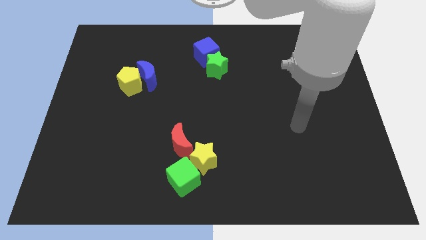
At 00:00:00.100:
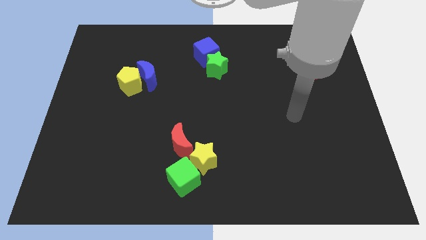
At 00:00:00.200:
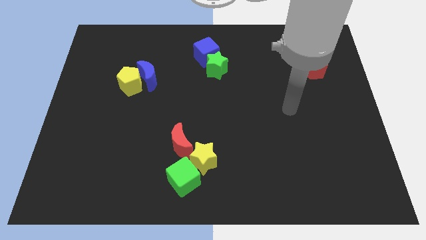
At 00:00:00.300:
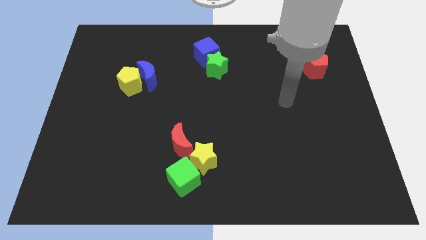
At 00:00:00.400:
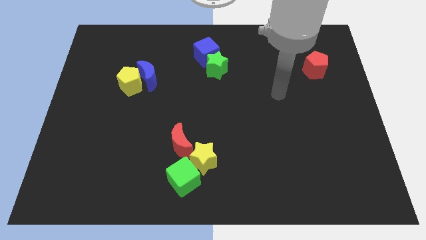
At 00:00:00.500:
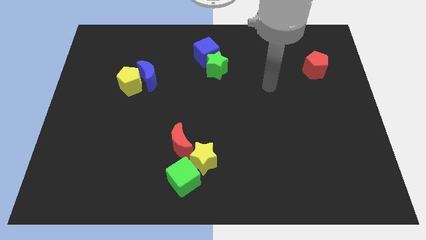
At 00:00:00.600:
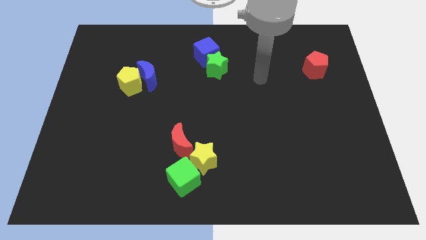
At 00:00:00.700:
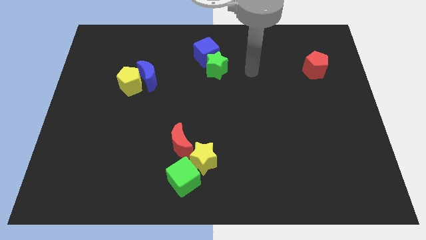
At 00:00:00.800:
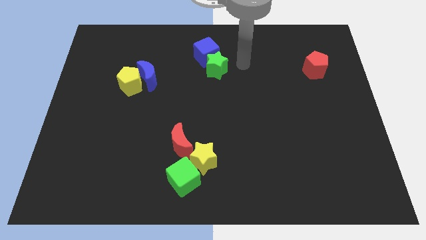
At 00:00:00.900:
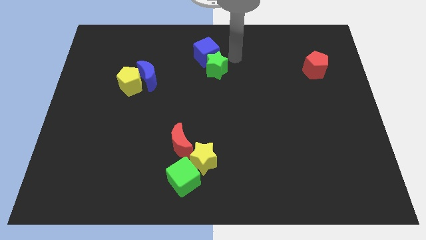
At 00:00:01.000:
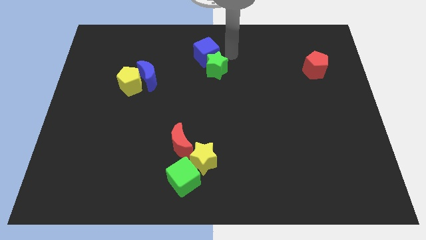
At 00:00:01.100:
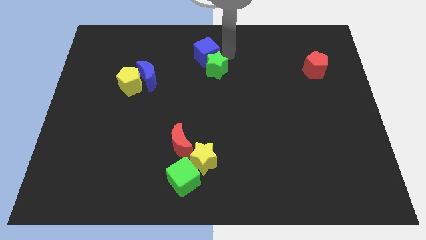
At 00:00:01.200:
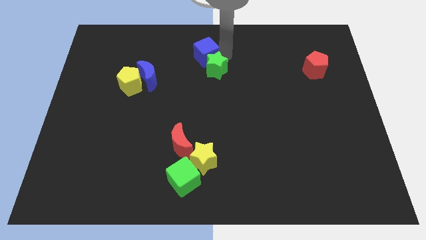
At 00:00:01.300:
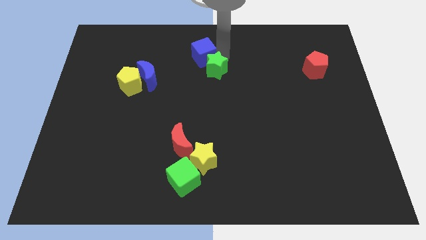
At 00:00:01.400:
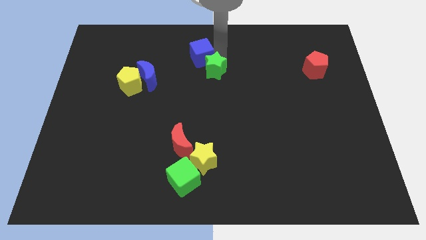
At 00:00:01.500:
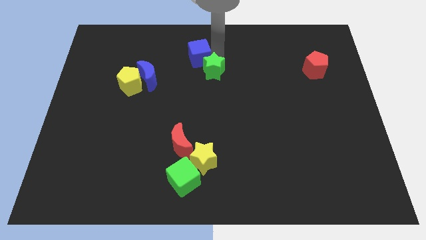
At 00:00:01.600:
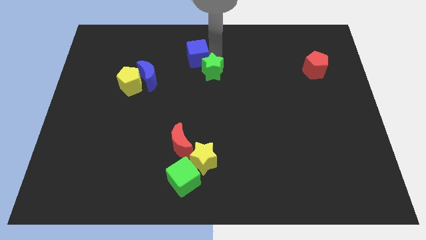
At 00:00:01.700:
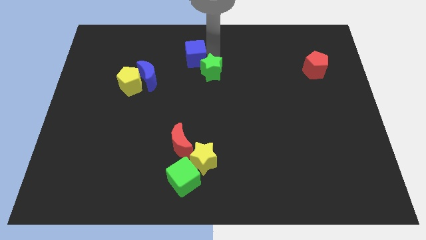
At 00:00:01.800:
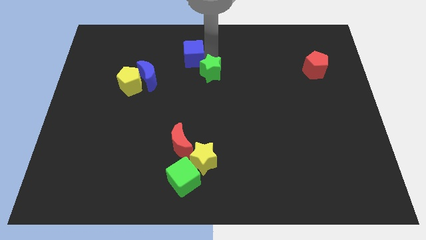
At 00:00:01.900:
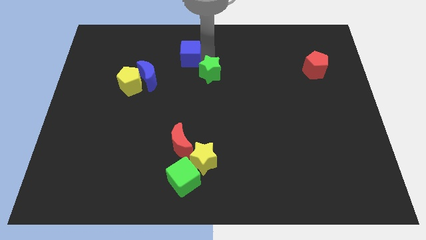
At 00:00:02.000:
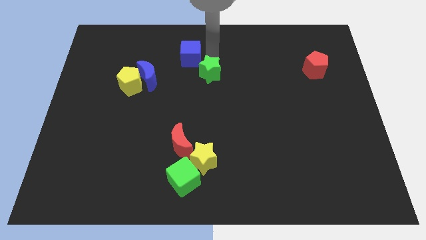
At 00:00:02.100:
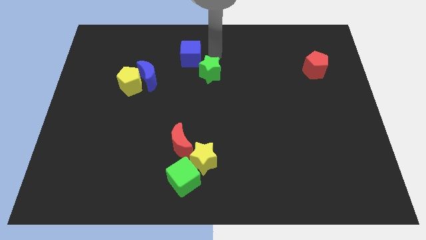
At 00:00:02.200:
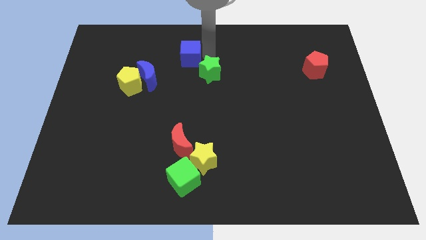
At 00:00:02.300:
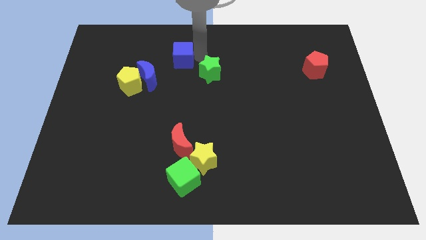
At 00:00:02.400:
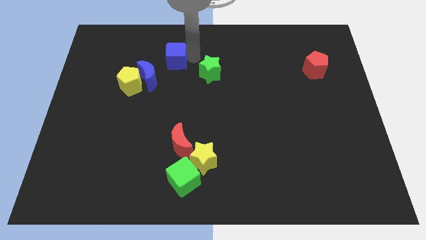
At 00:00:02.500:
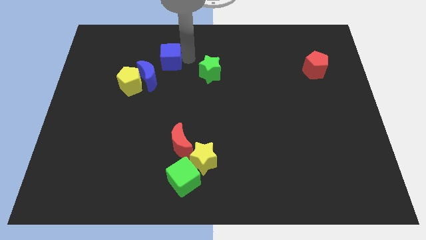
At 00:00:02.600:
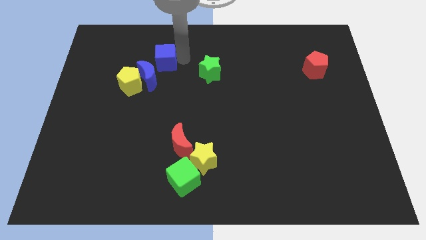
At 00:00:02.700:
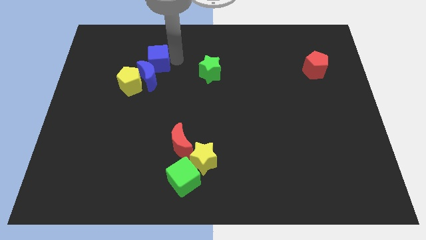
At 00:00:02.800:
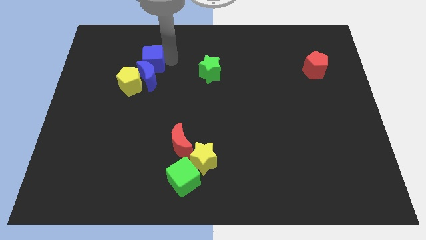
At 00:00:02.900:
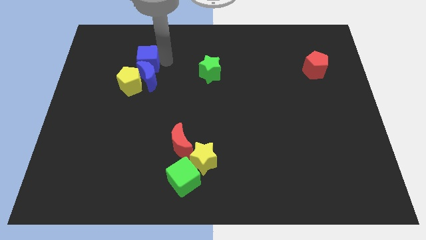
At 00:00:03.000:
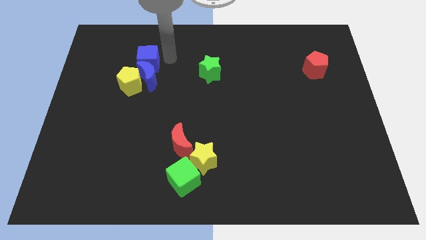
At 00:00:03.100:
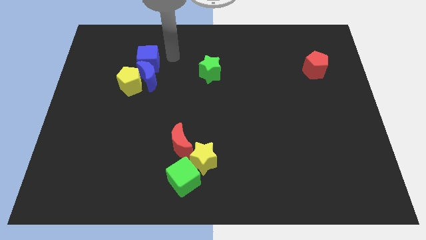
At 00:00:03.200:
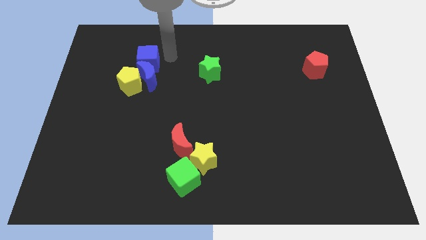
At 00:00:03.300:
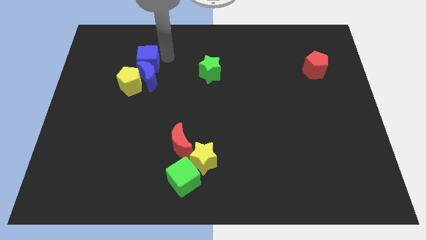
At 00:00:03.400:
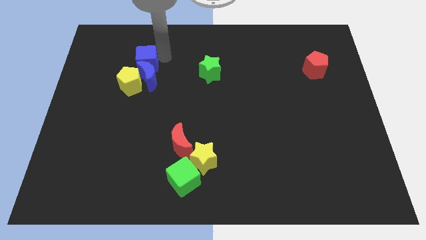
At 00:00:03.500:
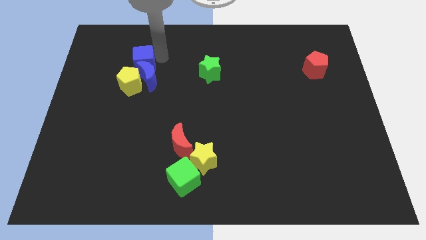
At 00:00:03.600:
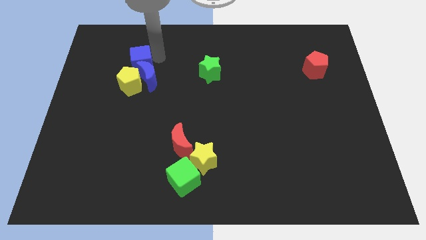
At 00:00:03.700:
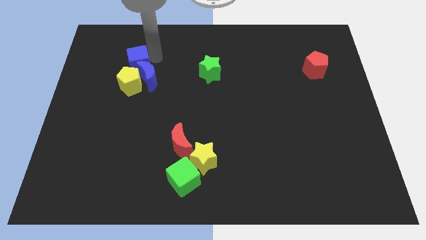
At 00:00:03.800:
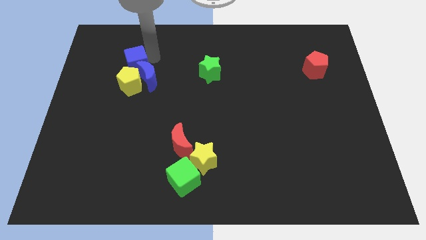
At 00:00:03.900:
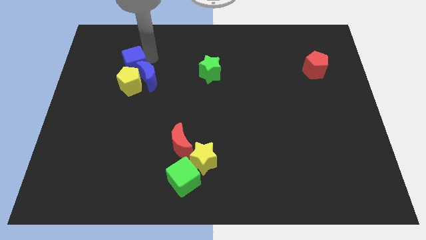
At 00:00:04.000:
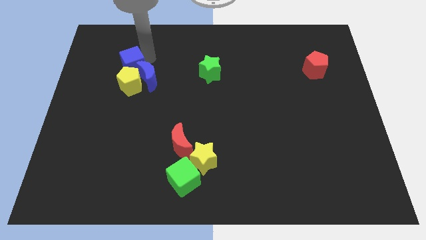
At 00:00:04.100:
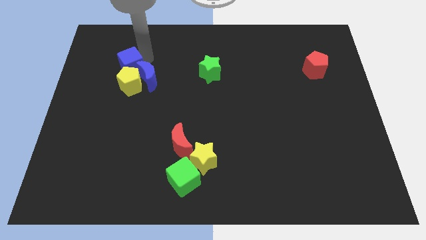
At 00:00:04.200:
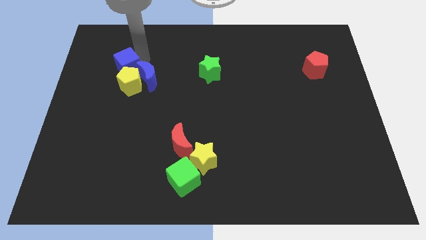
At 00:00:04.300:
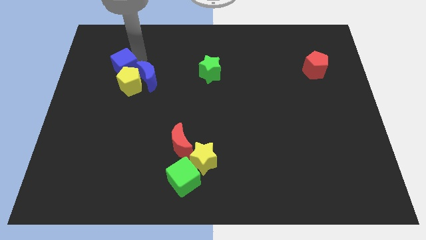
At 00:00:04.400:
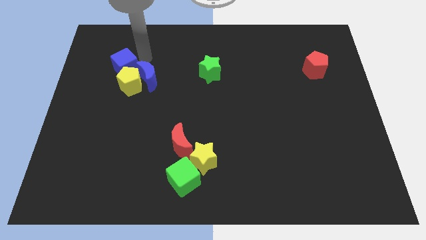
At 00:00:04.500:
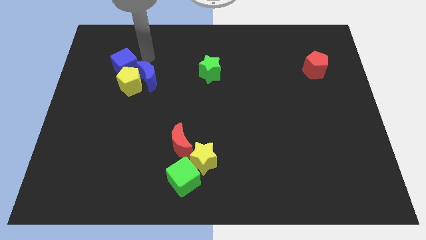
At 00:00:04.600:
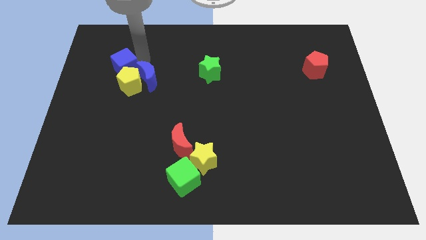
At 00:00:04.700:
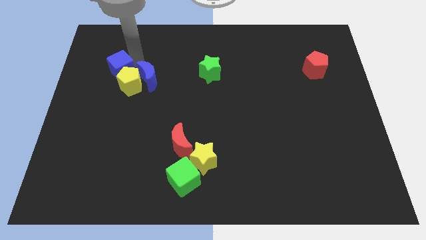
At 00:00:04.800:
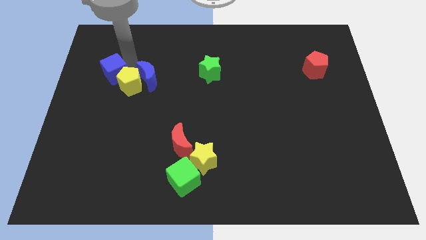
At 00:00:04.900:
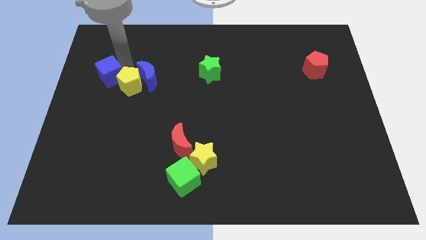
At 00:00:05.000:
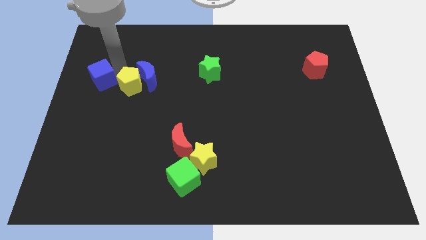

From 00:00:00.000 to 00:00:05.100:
move the blue cube to the left side

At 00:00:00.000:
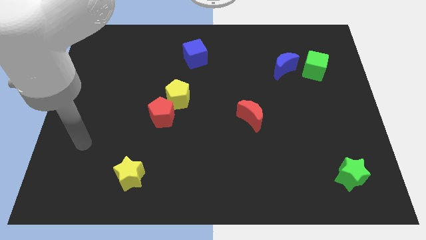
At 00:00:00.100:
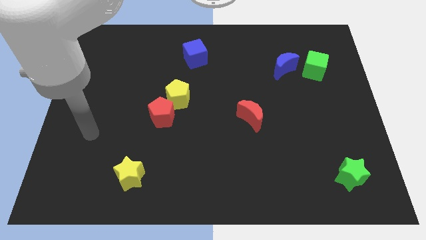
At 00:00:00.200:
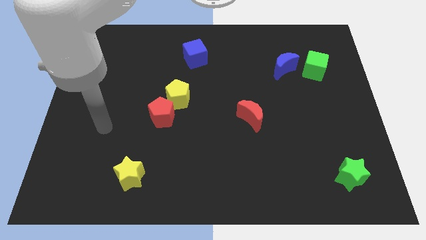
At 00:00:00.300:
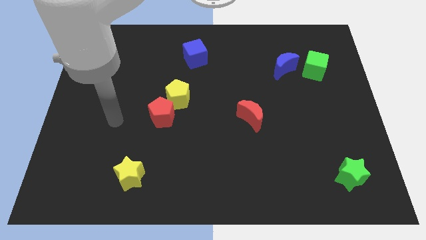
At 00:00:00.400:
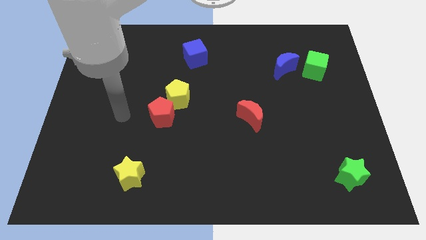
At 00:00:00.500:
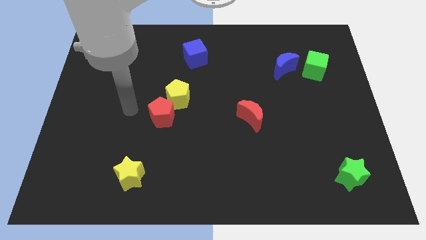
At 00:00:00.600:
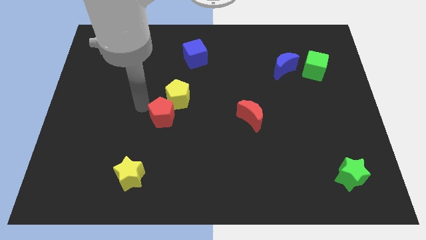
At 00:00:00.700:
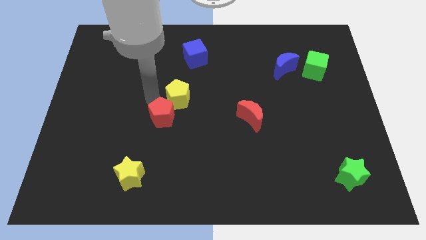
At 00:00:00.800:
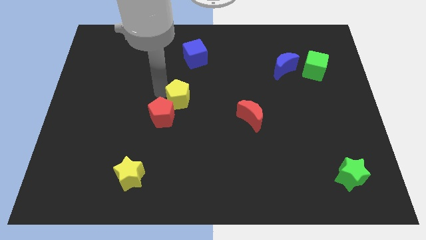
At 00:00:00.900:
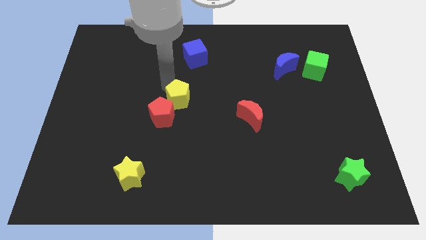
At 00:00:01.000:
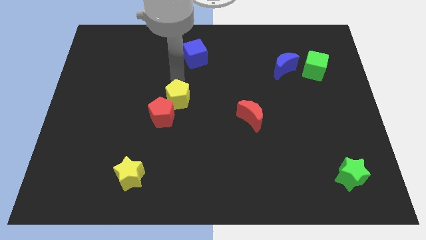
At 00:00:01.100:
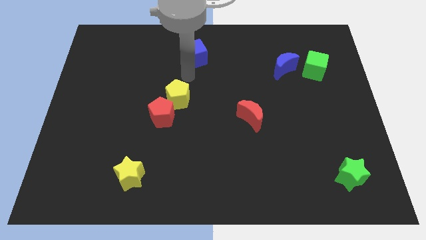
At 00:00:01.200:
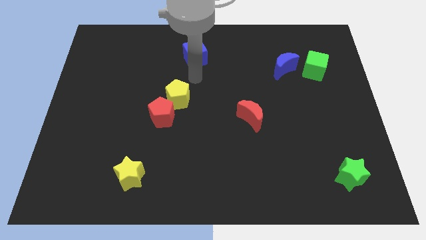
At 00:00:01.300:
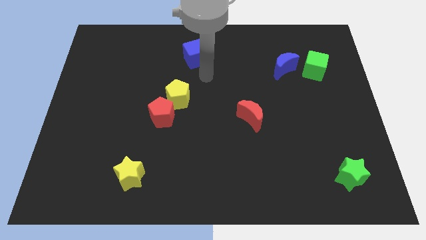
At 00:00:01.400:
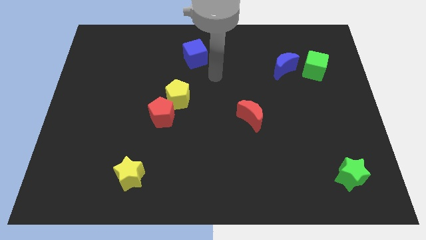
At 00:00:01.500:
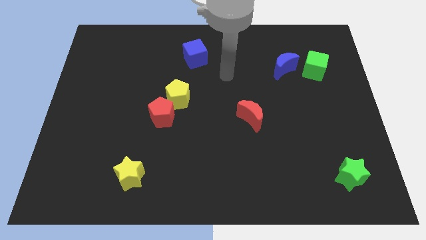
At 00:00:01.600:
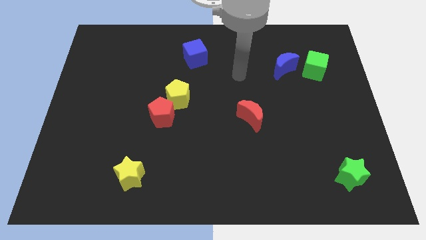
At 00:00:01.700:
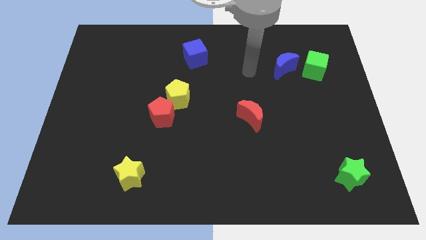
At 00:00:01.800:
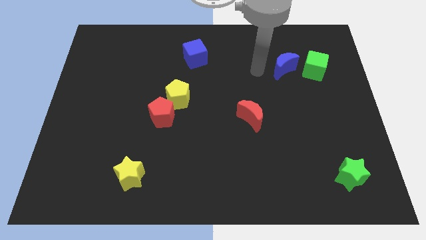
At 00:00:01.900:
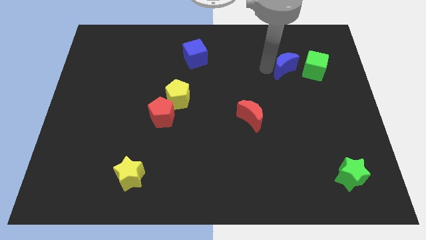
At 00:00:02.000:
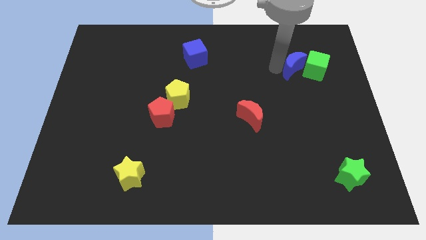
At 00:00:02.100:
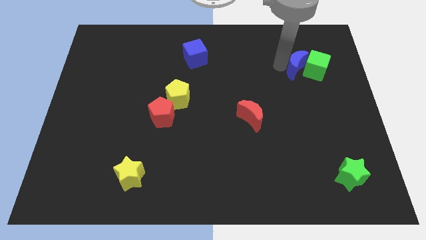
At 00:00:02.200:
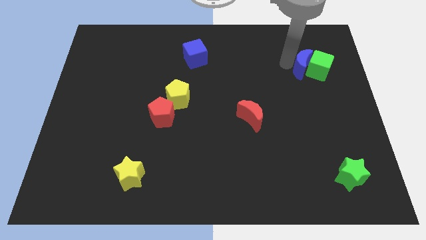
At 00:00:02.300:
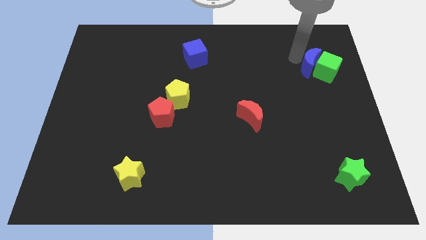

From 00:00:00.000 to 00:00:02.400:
push the green cube to the center right
